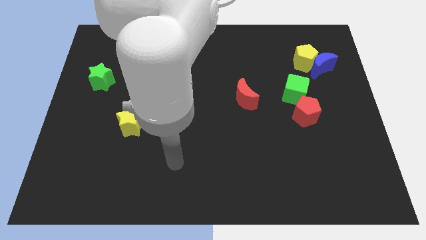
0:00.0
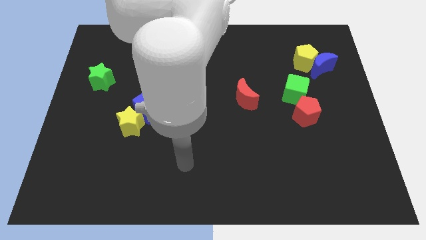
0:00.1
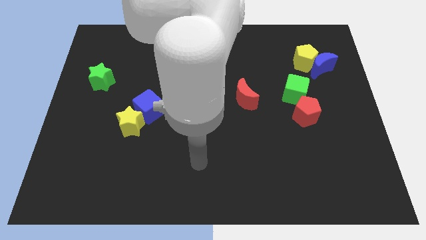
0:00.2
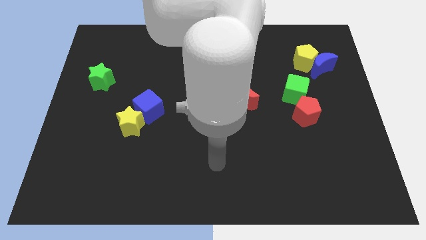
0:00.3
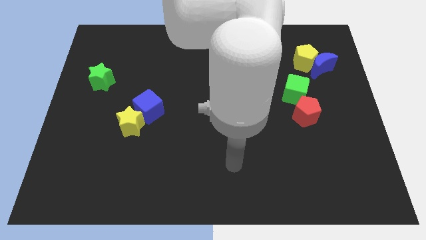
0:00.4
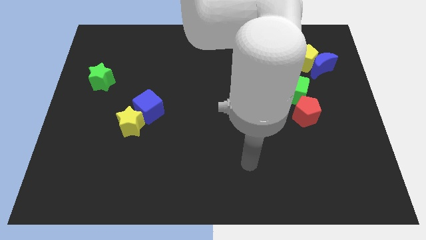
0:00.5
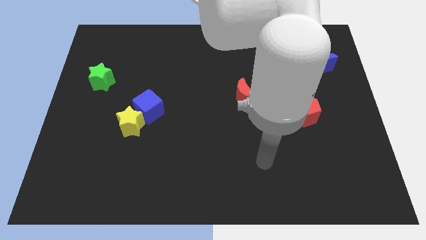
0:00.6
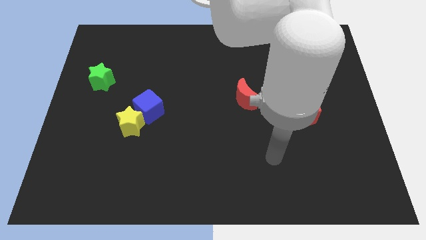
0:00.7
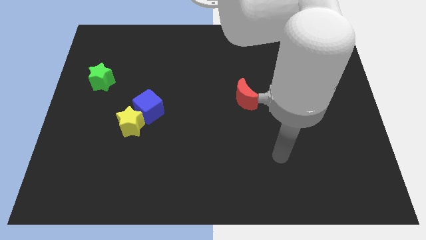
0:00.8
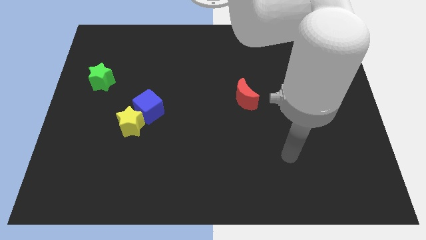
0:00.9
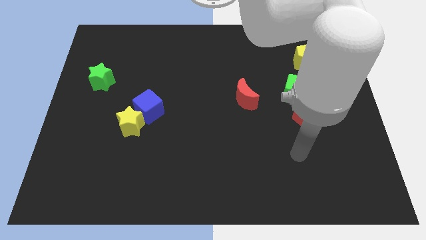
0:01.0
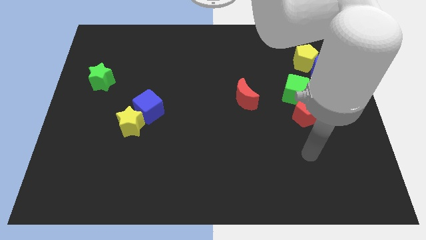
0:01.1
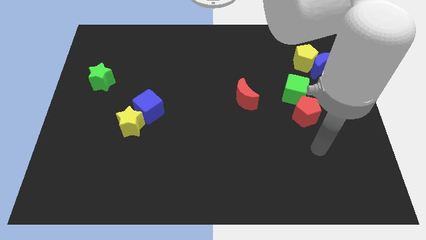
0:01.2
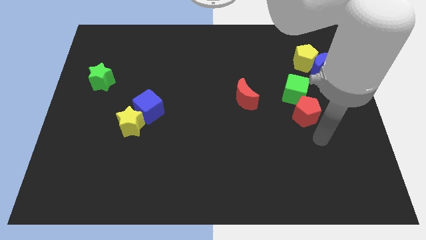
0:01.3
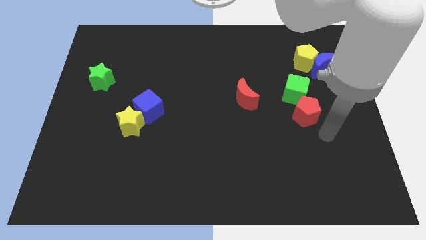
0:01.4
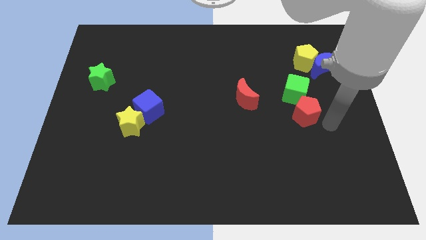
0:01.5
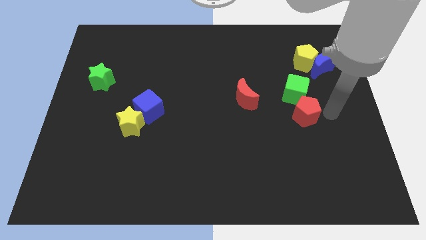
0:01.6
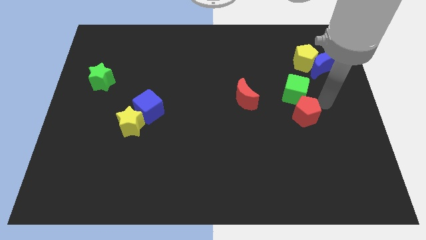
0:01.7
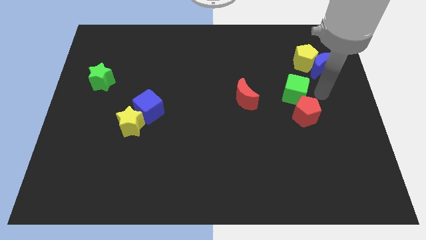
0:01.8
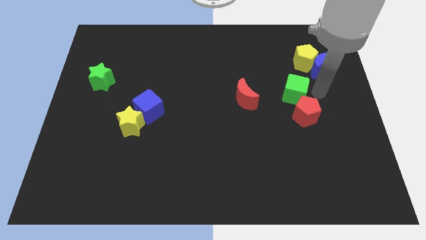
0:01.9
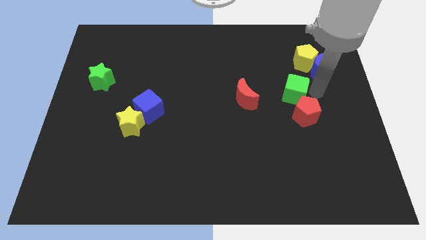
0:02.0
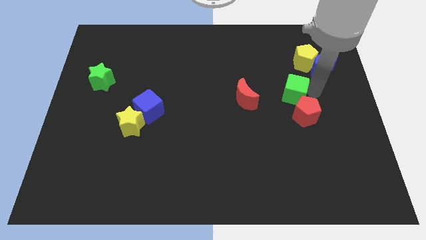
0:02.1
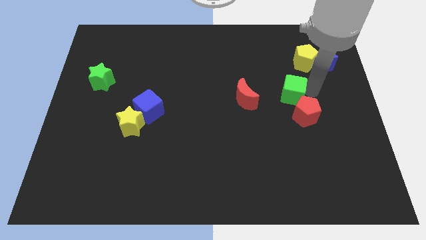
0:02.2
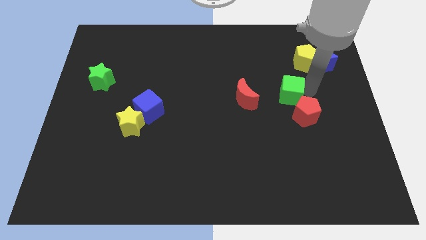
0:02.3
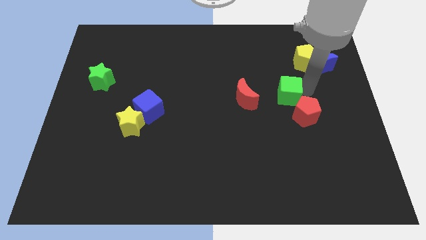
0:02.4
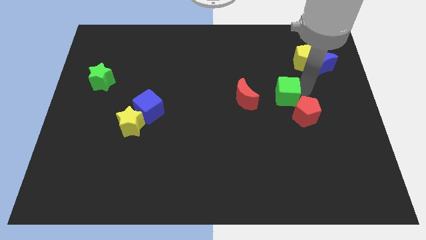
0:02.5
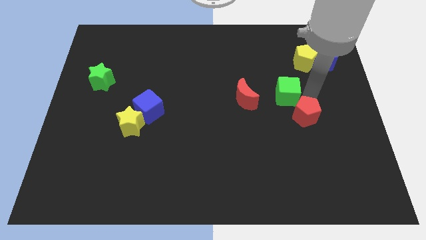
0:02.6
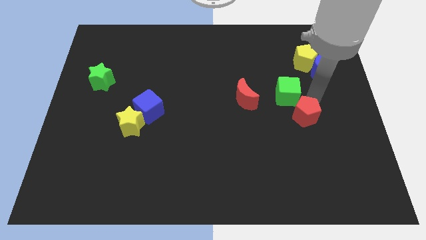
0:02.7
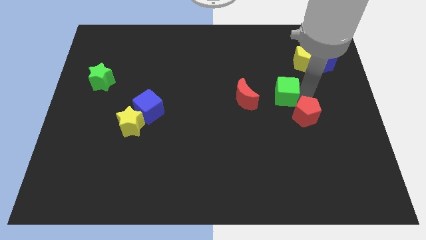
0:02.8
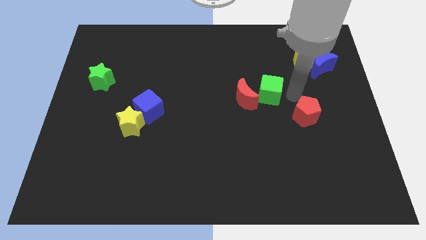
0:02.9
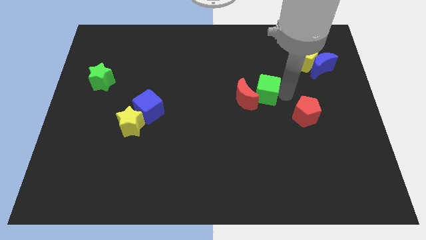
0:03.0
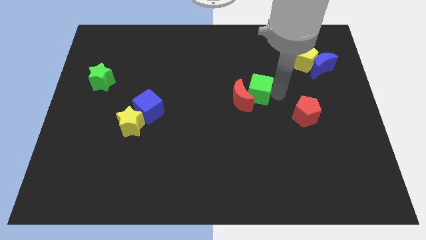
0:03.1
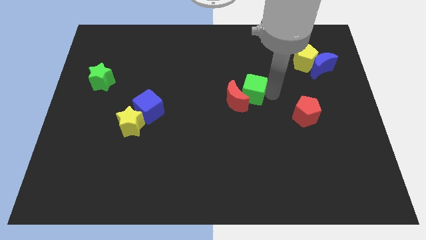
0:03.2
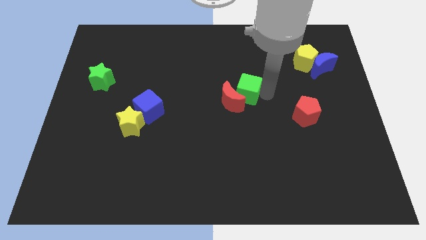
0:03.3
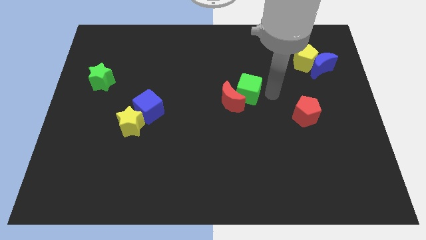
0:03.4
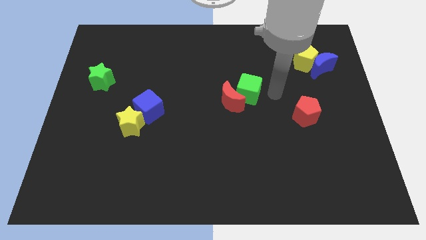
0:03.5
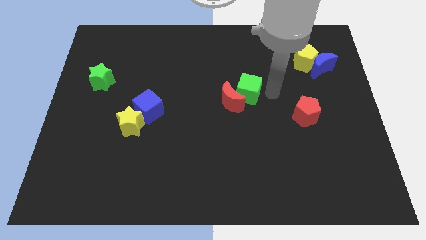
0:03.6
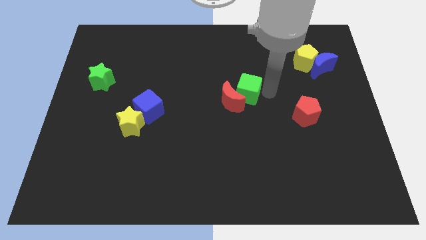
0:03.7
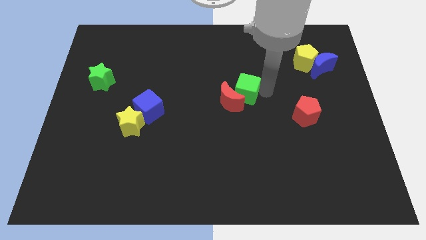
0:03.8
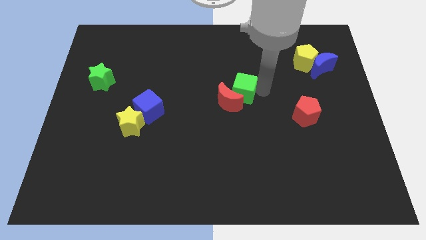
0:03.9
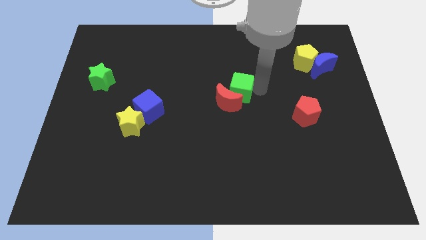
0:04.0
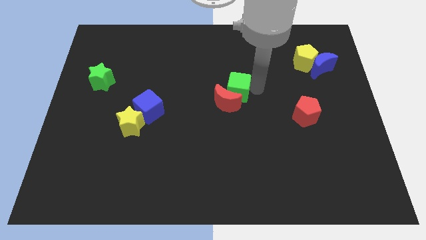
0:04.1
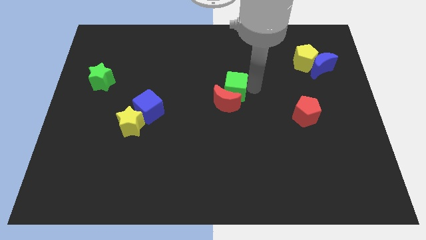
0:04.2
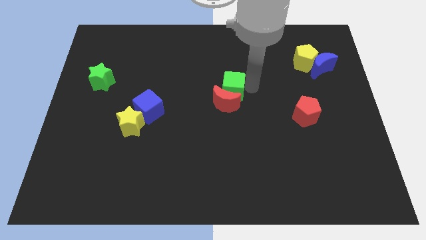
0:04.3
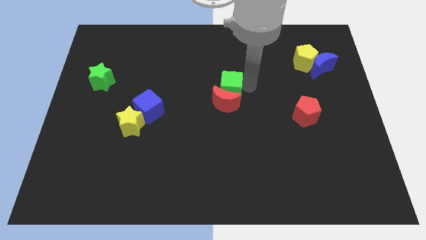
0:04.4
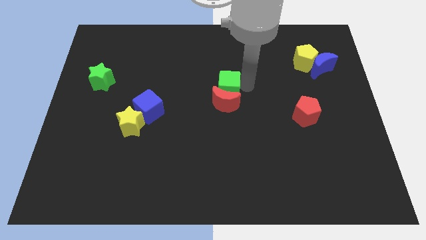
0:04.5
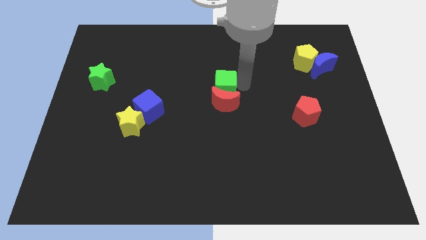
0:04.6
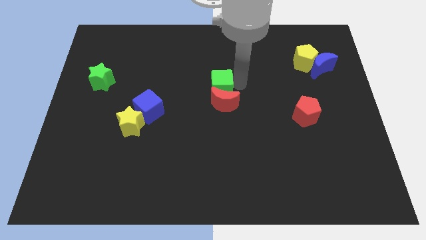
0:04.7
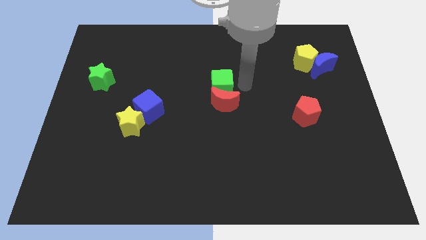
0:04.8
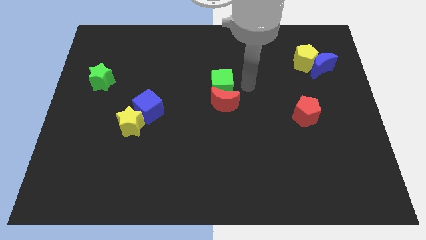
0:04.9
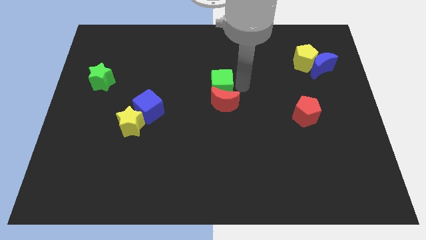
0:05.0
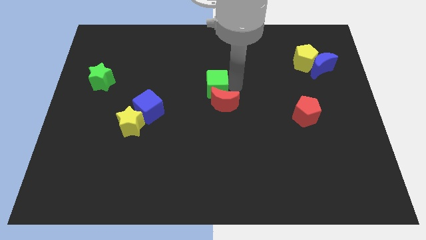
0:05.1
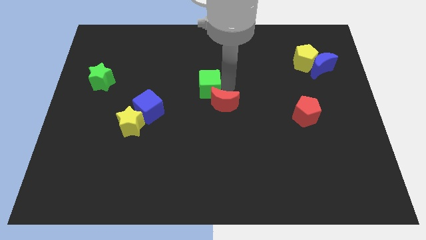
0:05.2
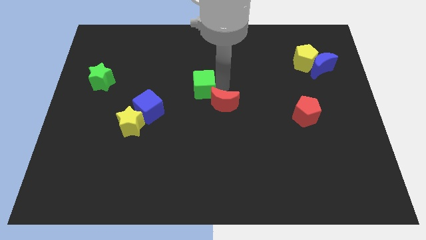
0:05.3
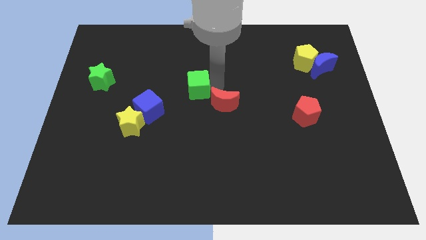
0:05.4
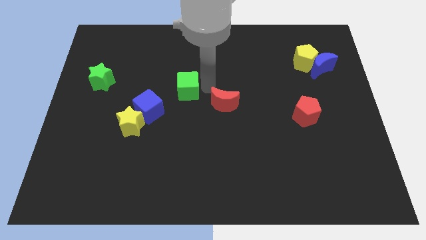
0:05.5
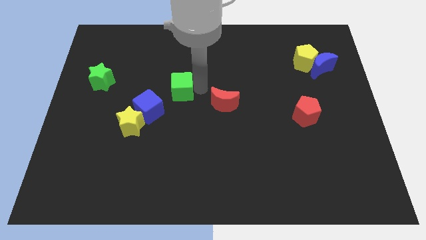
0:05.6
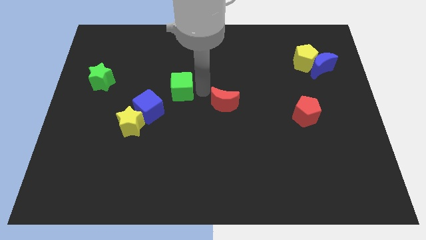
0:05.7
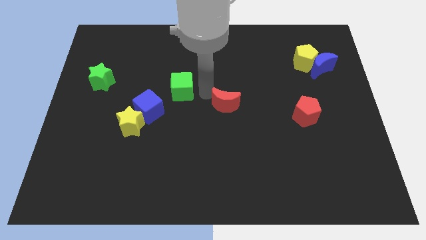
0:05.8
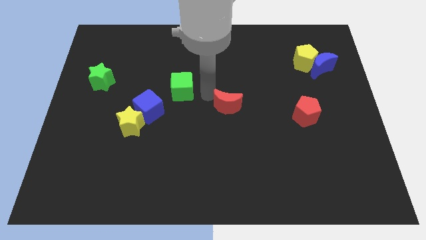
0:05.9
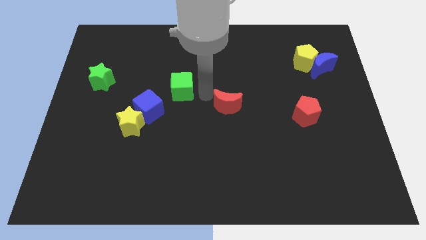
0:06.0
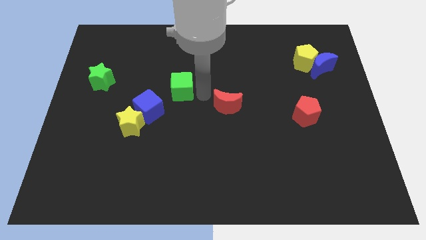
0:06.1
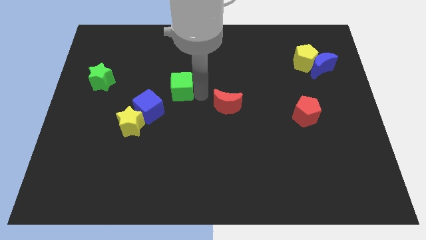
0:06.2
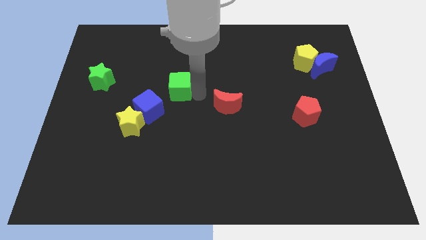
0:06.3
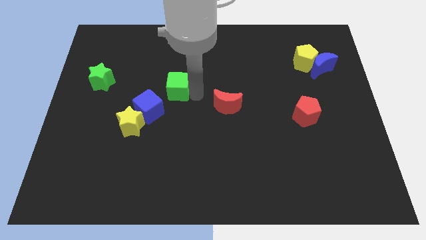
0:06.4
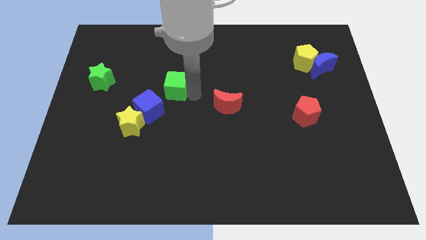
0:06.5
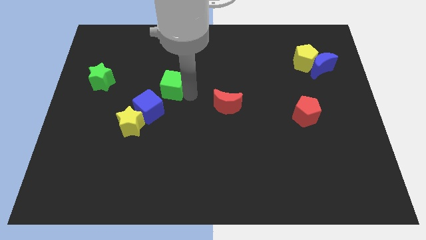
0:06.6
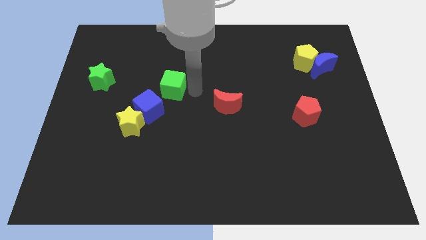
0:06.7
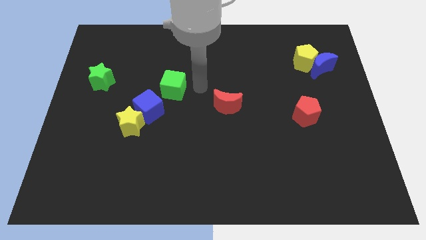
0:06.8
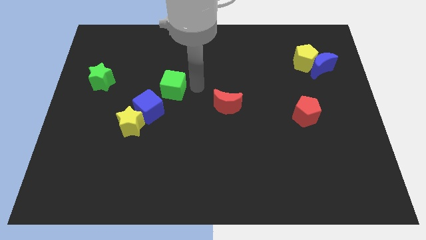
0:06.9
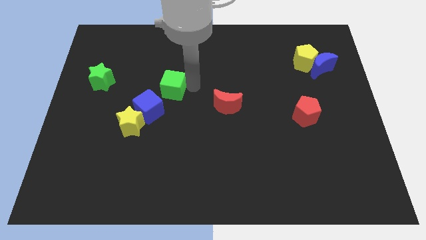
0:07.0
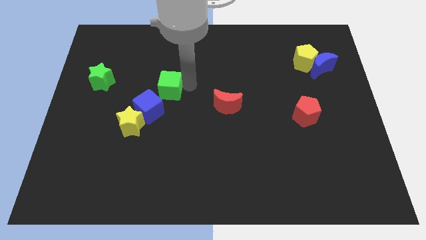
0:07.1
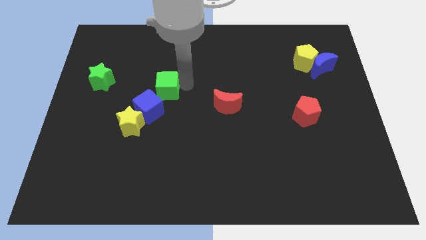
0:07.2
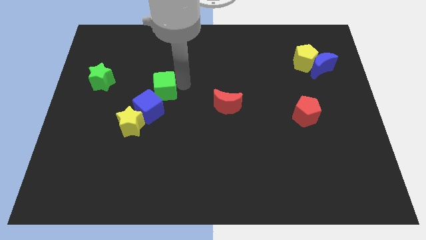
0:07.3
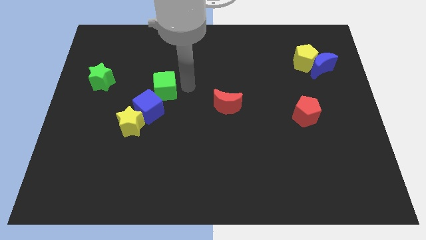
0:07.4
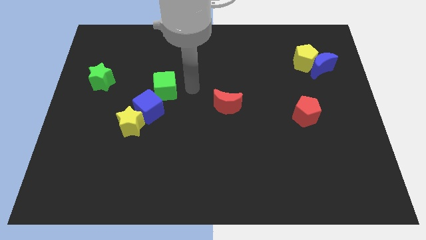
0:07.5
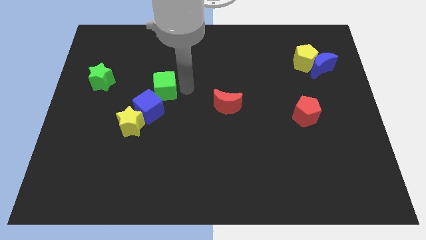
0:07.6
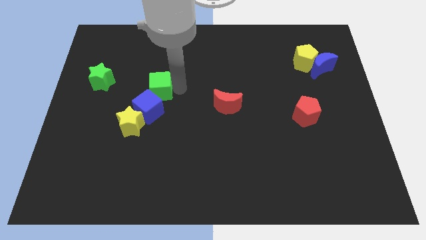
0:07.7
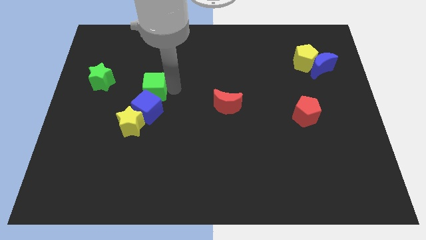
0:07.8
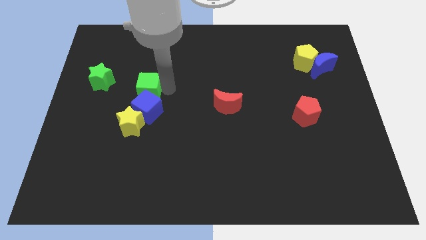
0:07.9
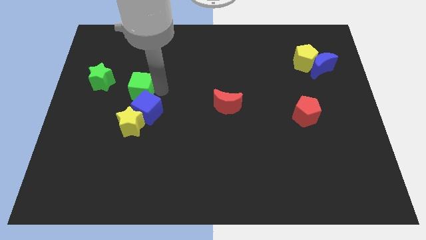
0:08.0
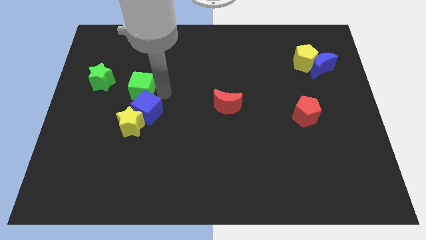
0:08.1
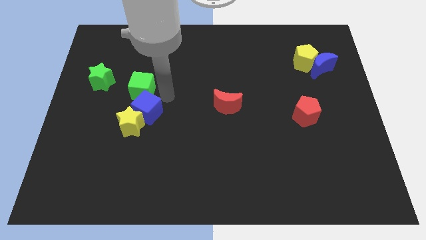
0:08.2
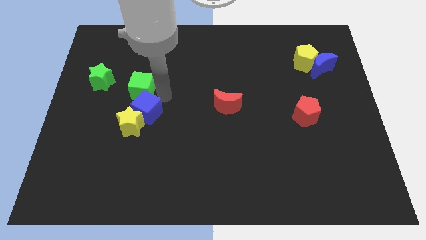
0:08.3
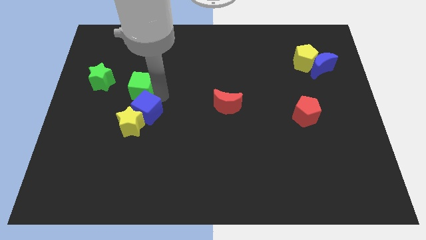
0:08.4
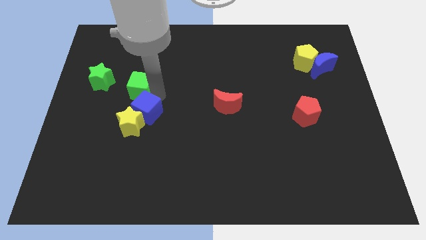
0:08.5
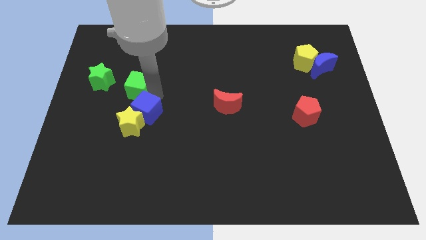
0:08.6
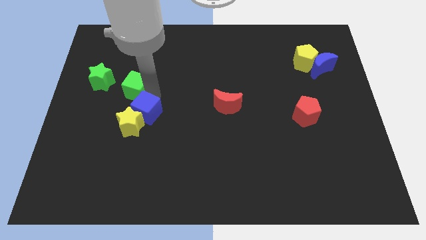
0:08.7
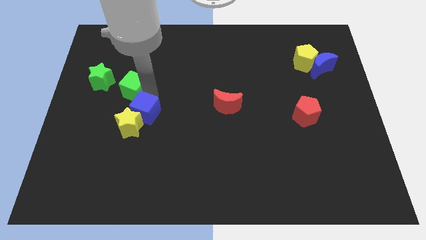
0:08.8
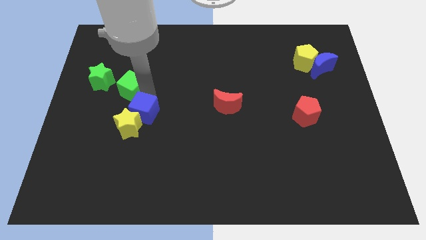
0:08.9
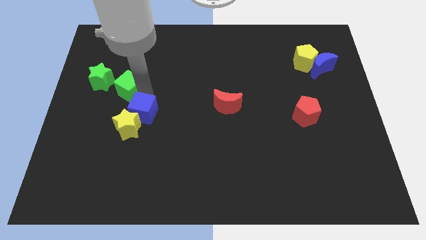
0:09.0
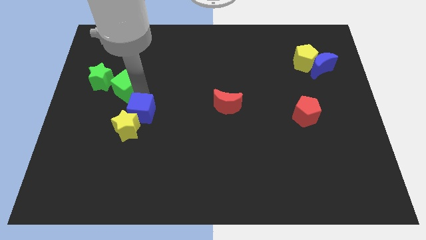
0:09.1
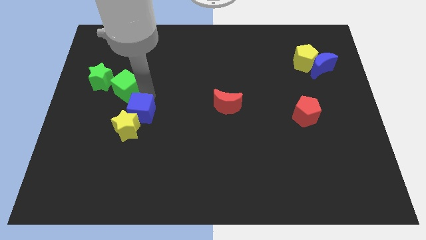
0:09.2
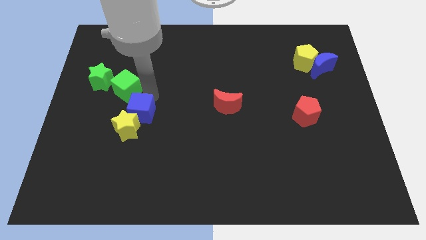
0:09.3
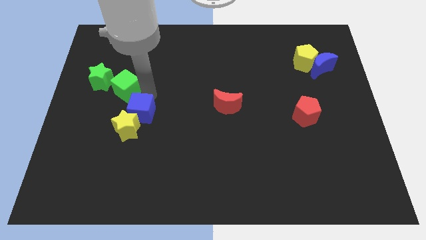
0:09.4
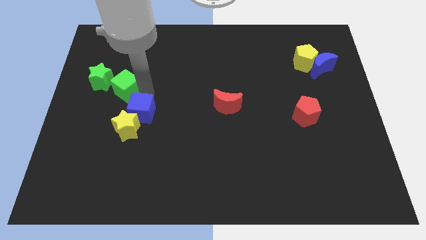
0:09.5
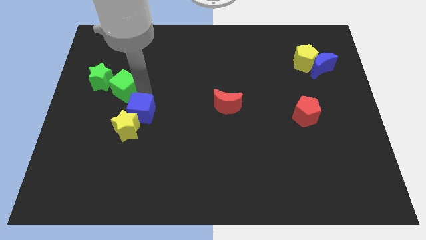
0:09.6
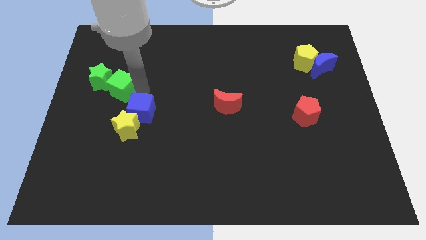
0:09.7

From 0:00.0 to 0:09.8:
put the green cube to the green star
